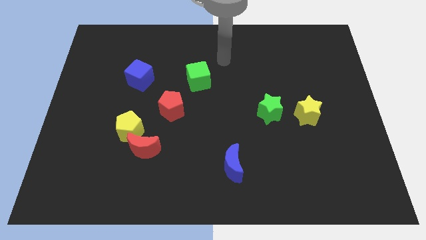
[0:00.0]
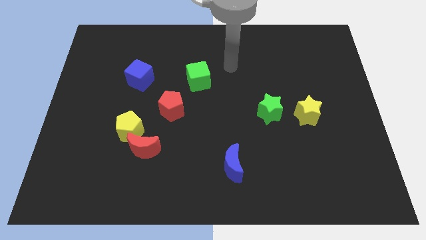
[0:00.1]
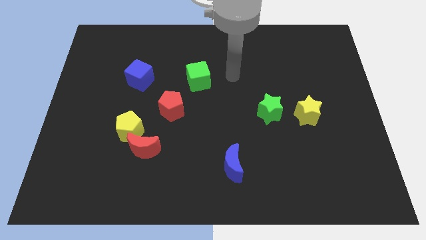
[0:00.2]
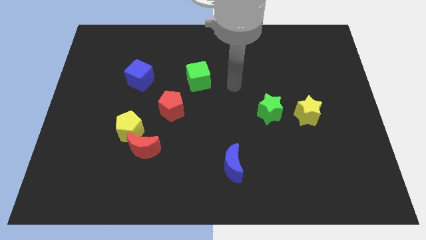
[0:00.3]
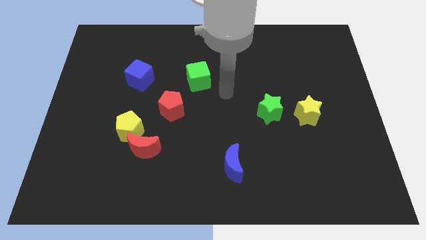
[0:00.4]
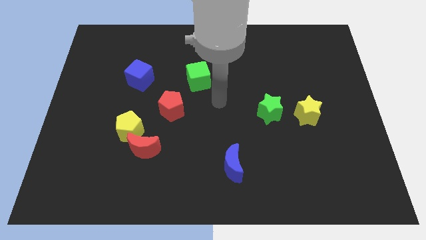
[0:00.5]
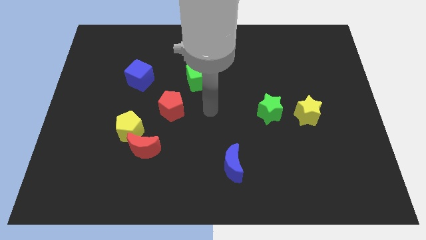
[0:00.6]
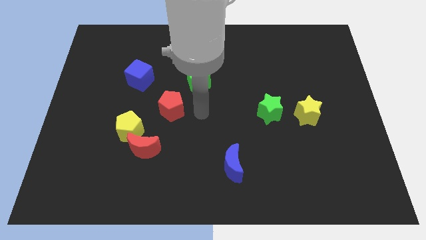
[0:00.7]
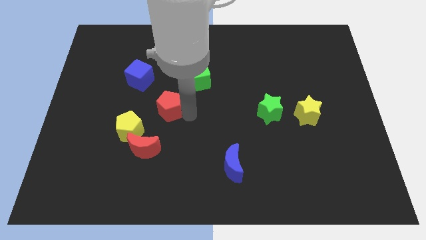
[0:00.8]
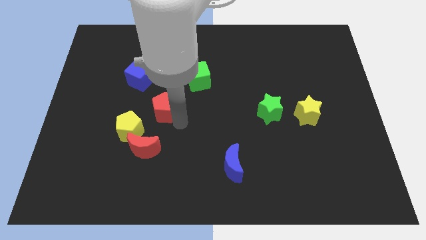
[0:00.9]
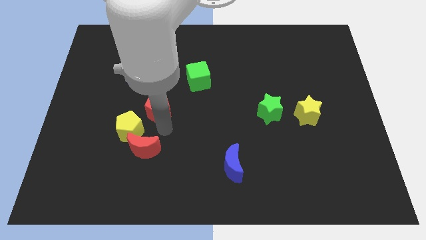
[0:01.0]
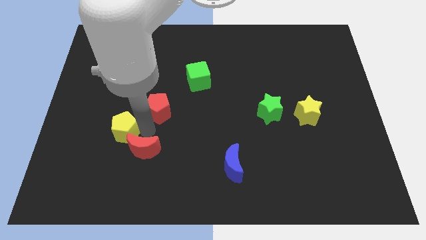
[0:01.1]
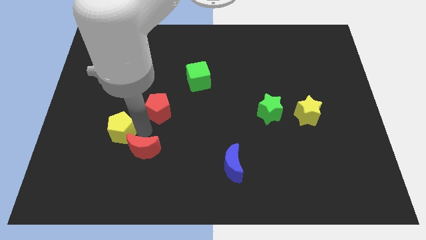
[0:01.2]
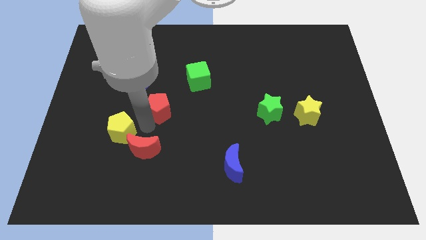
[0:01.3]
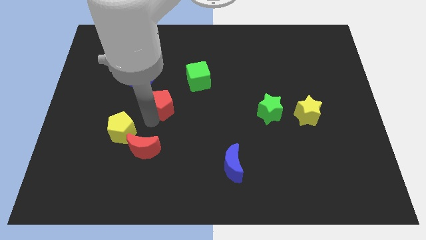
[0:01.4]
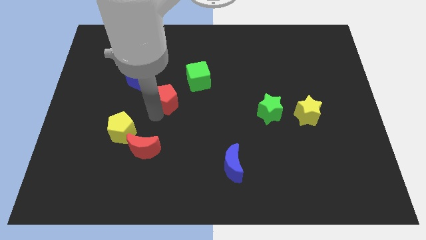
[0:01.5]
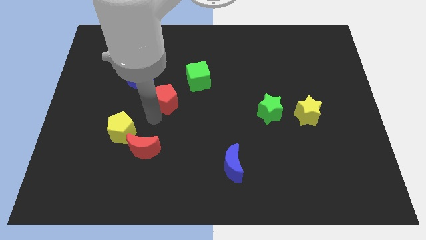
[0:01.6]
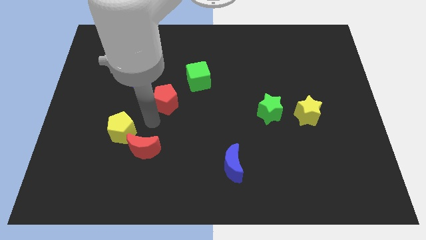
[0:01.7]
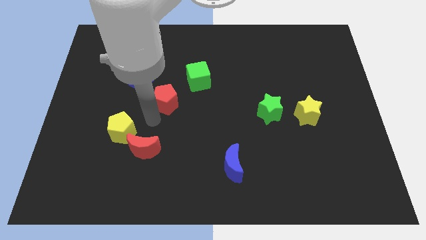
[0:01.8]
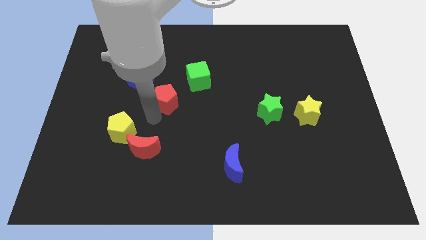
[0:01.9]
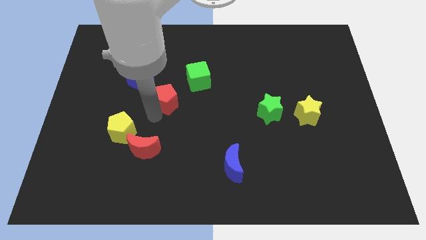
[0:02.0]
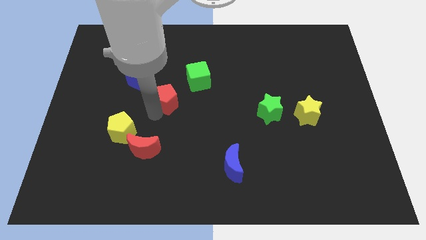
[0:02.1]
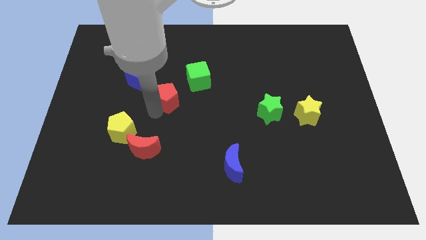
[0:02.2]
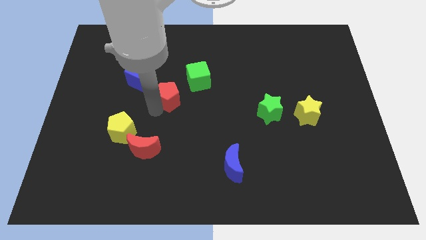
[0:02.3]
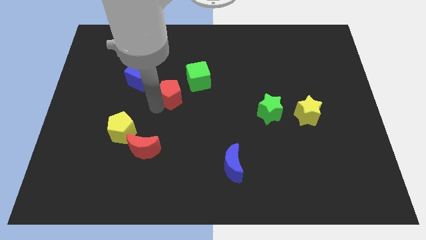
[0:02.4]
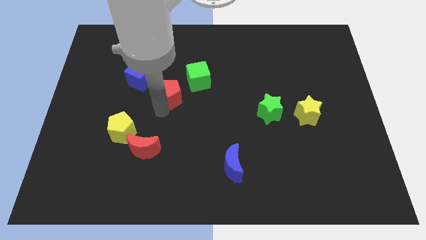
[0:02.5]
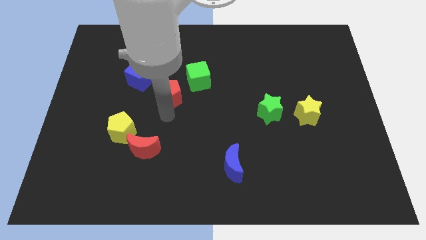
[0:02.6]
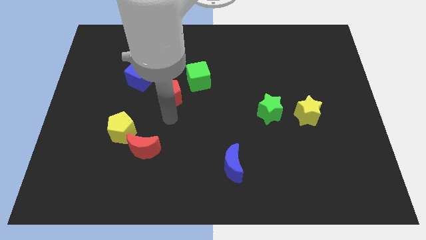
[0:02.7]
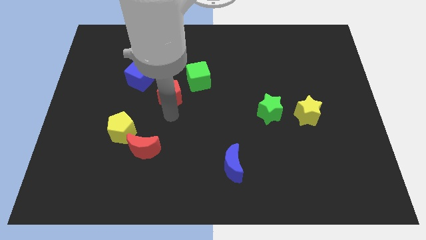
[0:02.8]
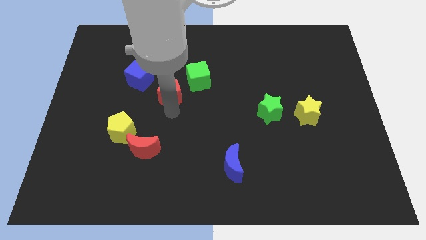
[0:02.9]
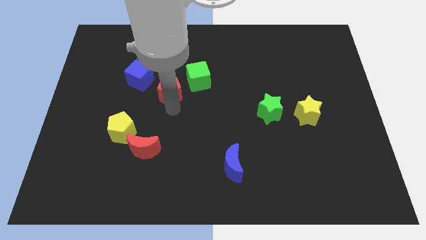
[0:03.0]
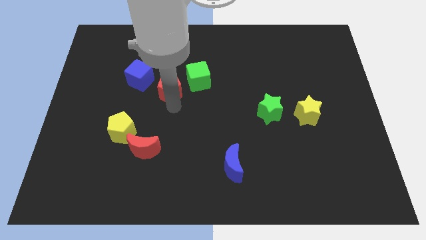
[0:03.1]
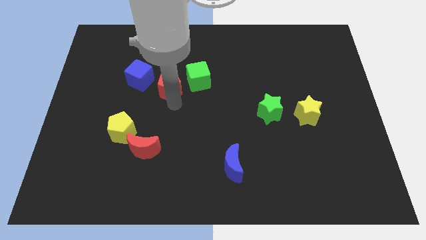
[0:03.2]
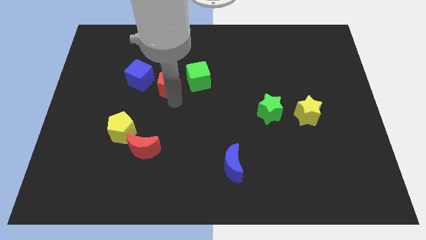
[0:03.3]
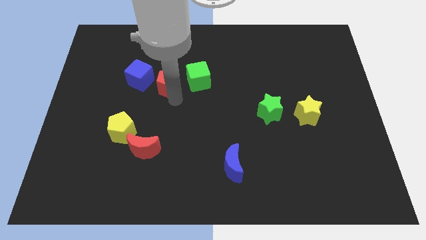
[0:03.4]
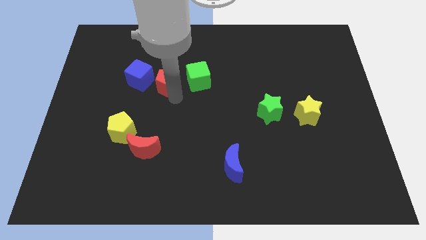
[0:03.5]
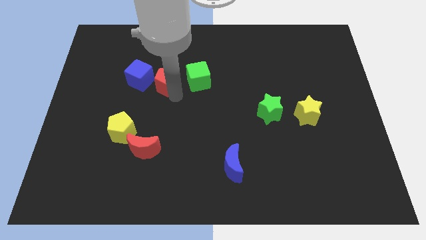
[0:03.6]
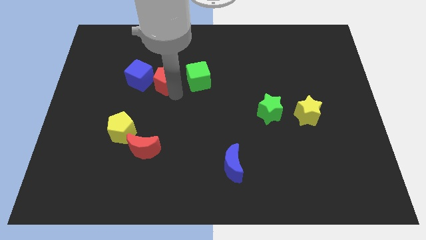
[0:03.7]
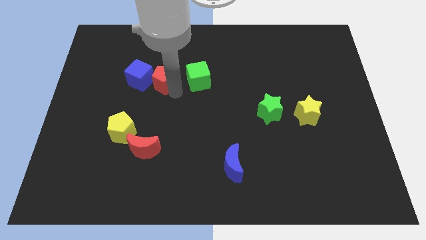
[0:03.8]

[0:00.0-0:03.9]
push the red pentagon up and then left a little bit

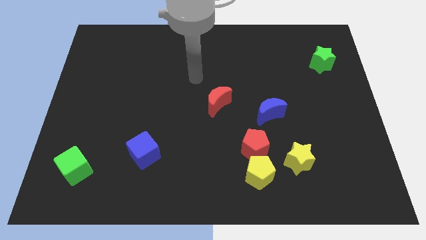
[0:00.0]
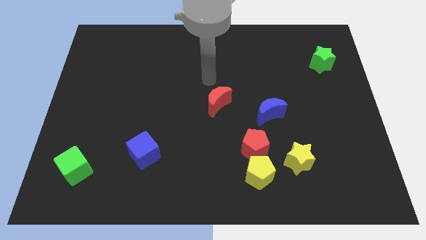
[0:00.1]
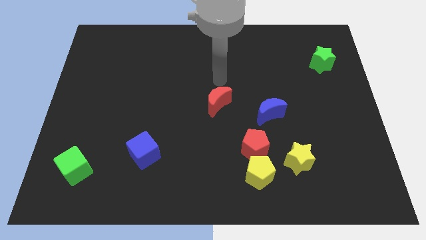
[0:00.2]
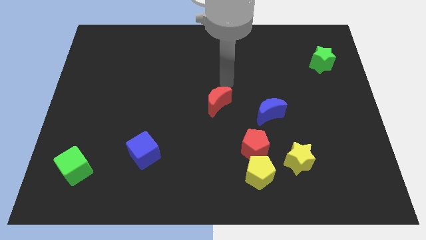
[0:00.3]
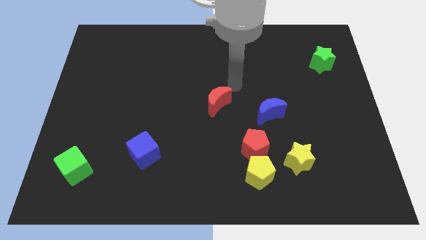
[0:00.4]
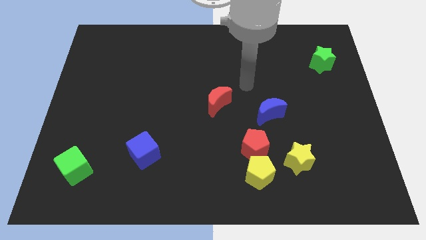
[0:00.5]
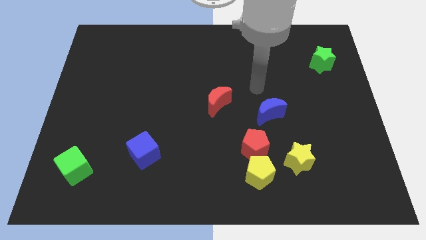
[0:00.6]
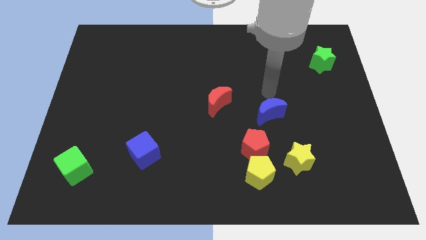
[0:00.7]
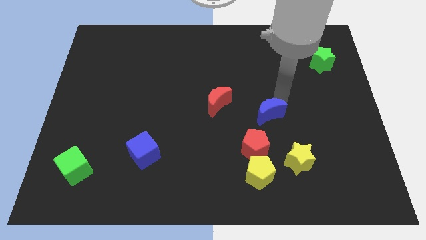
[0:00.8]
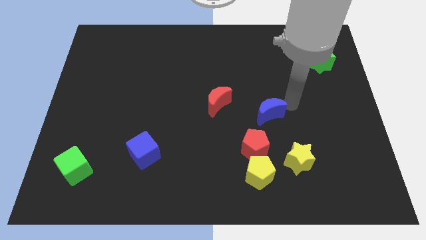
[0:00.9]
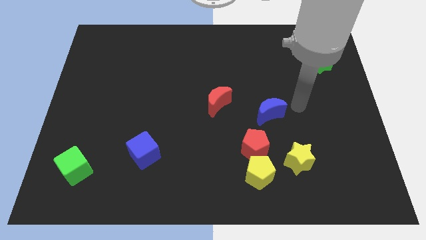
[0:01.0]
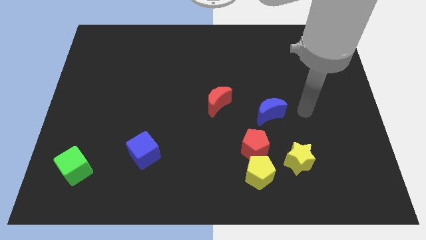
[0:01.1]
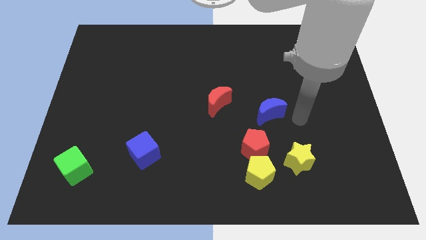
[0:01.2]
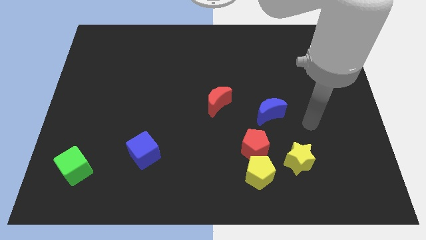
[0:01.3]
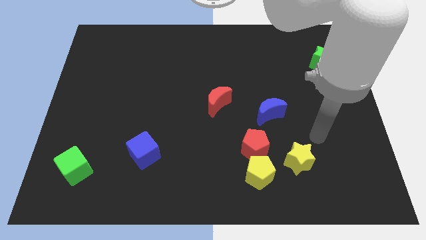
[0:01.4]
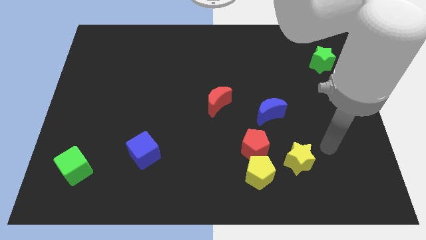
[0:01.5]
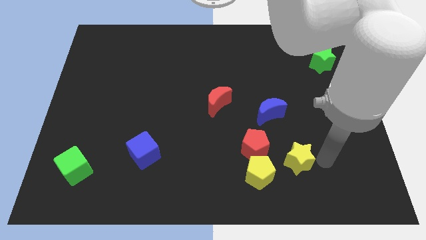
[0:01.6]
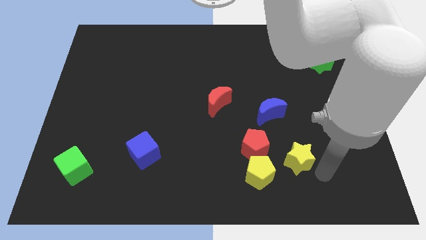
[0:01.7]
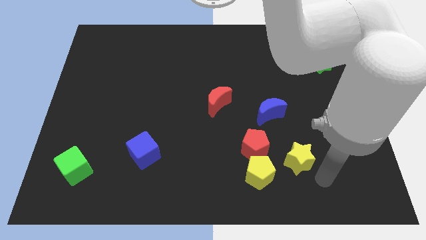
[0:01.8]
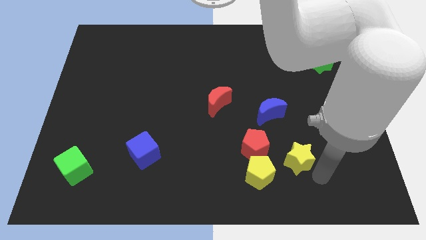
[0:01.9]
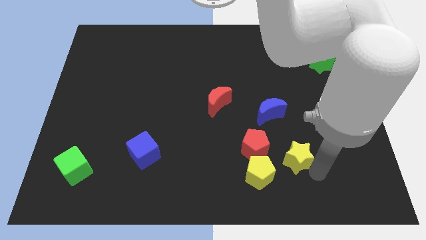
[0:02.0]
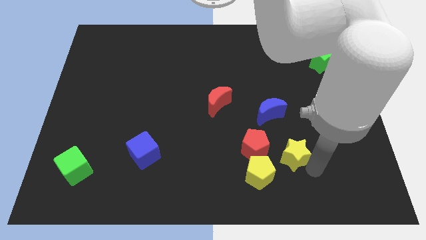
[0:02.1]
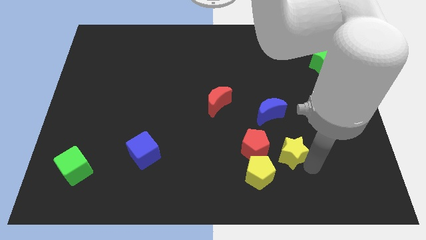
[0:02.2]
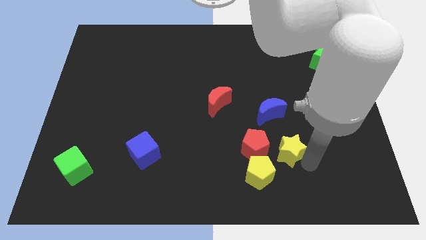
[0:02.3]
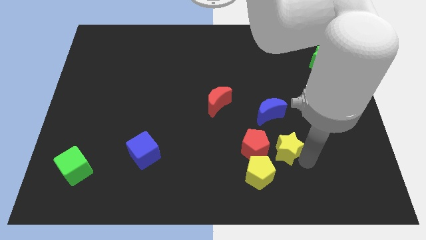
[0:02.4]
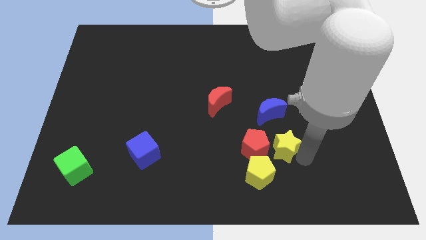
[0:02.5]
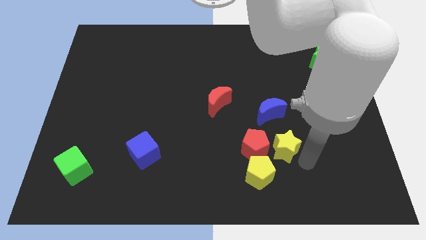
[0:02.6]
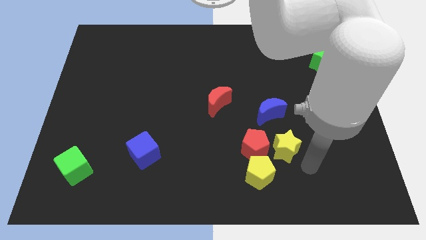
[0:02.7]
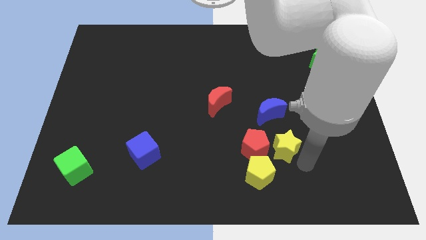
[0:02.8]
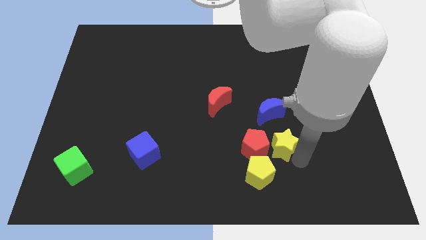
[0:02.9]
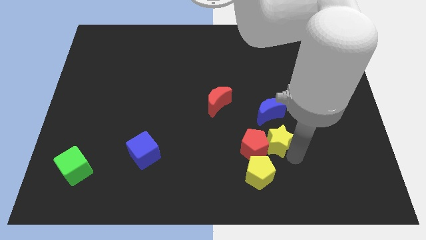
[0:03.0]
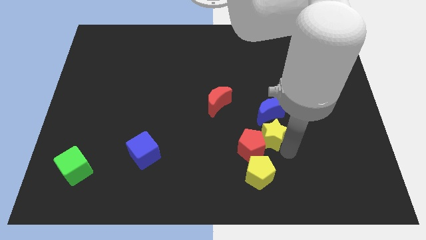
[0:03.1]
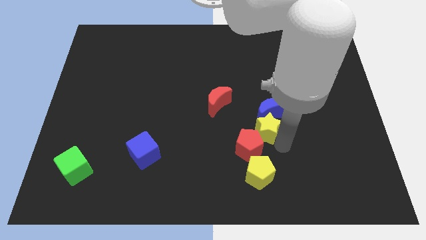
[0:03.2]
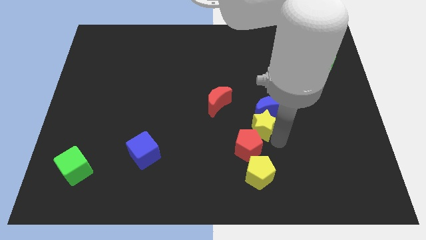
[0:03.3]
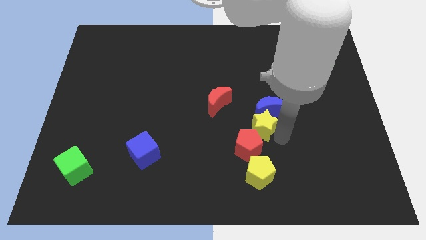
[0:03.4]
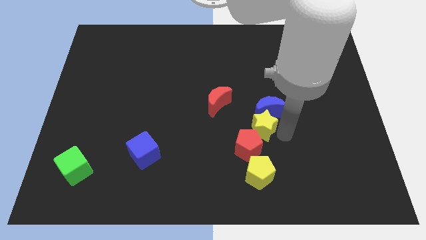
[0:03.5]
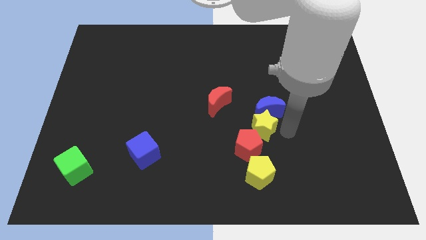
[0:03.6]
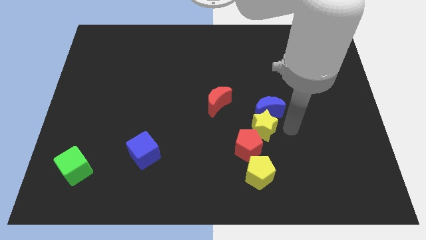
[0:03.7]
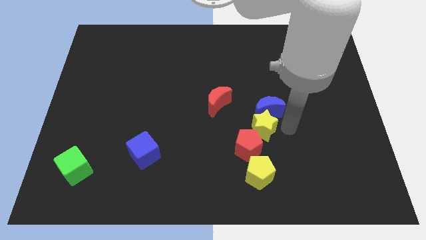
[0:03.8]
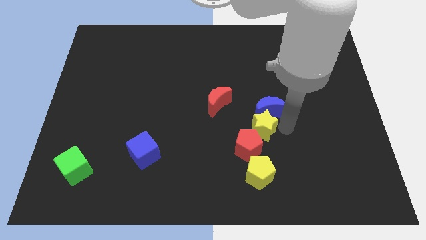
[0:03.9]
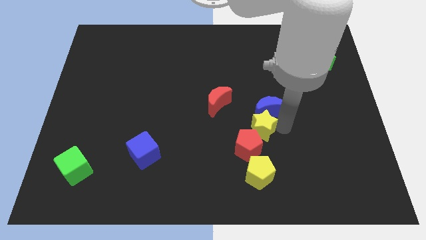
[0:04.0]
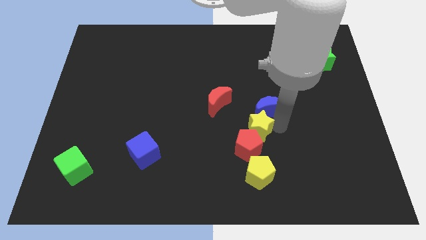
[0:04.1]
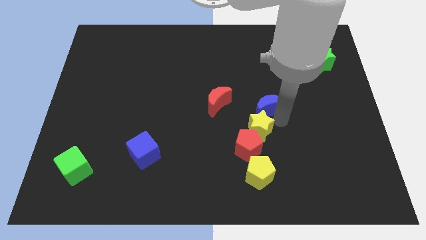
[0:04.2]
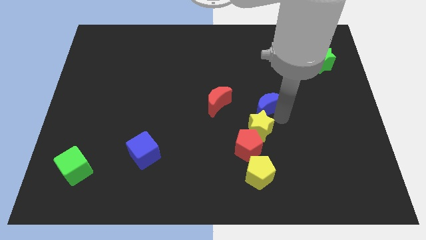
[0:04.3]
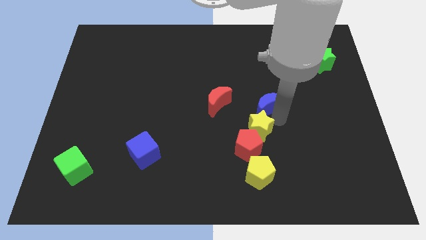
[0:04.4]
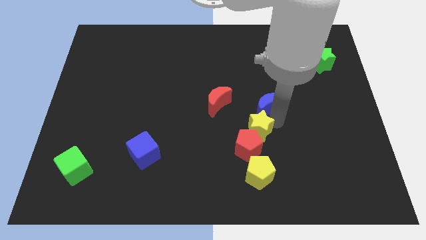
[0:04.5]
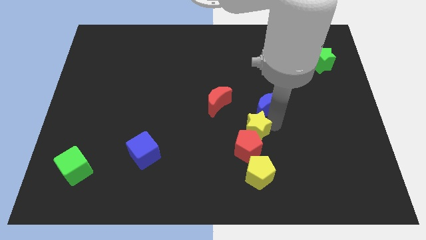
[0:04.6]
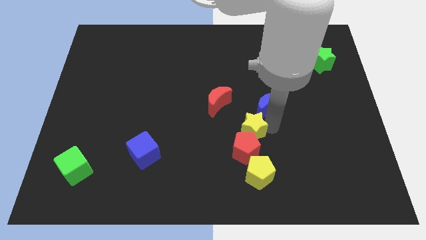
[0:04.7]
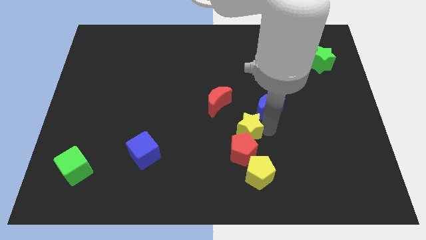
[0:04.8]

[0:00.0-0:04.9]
push the yellow star a little bit left
